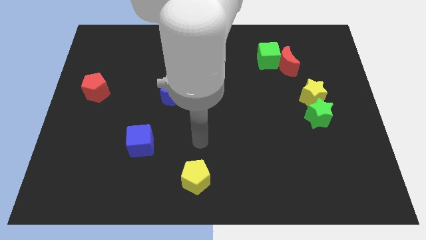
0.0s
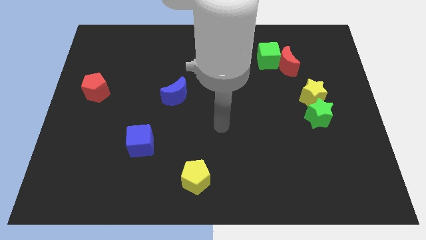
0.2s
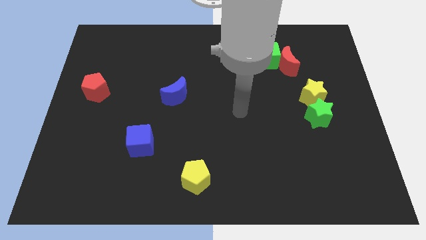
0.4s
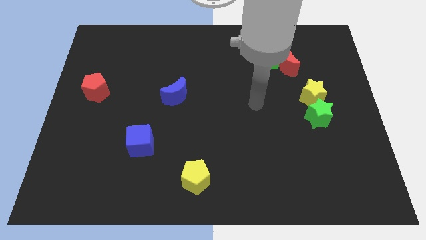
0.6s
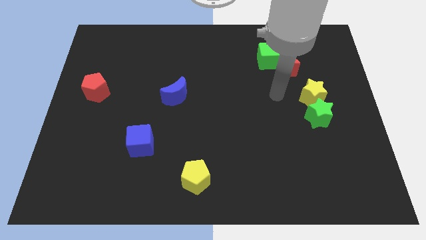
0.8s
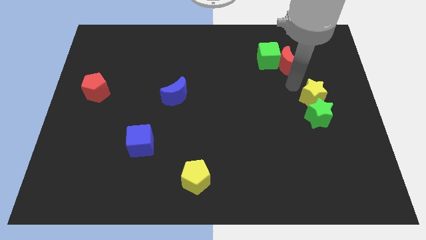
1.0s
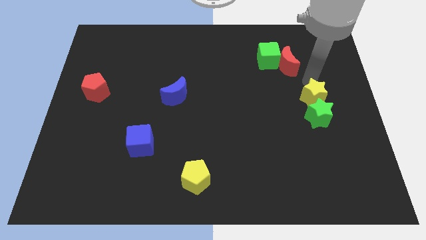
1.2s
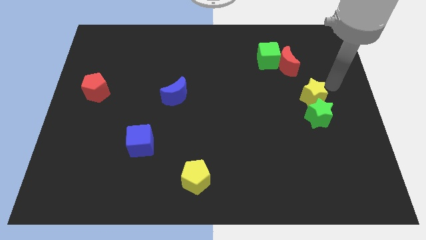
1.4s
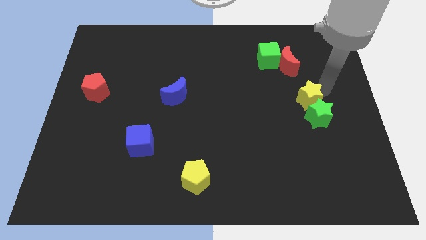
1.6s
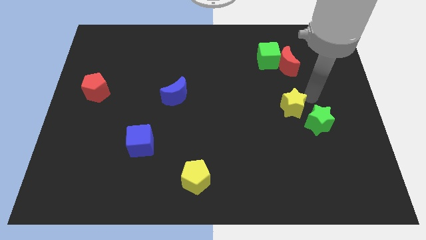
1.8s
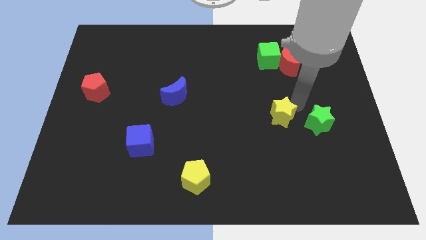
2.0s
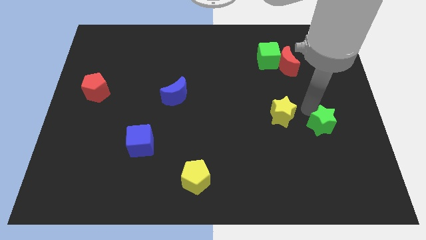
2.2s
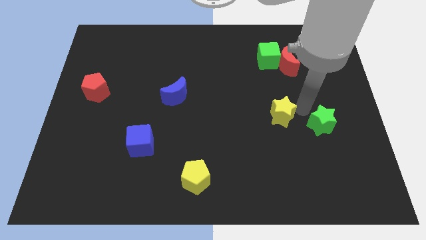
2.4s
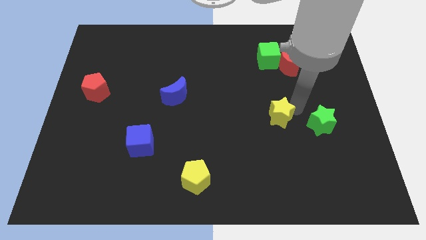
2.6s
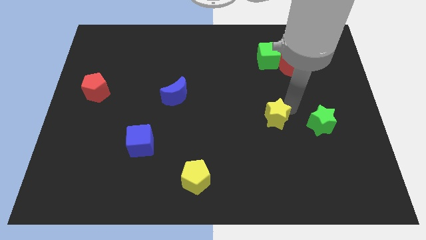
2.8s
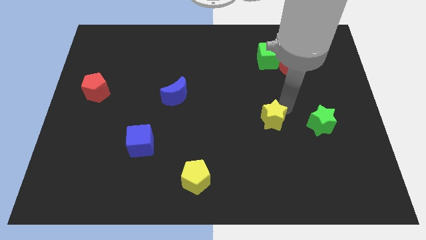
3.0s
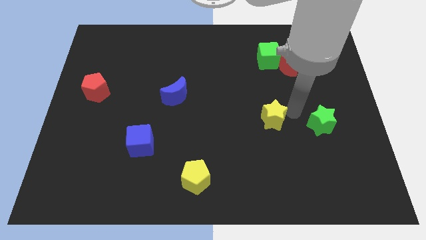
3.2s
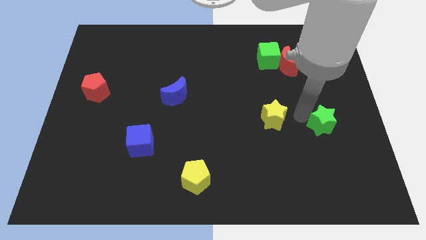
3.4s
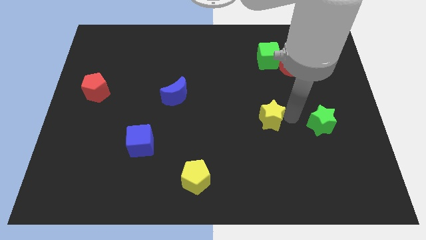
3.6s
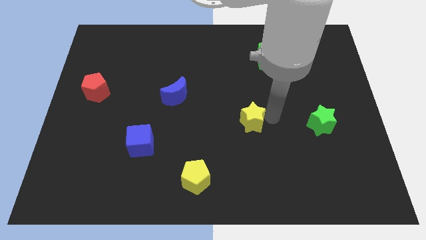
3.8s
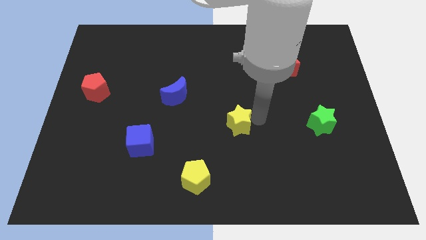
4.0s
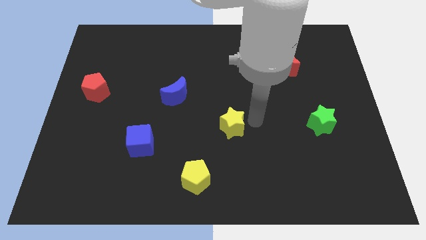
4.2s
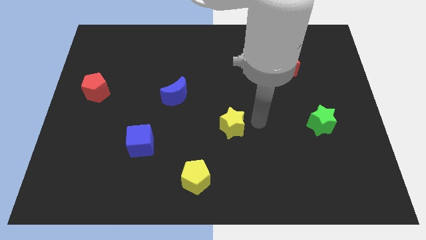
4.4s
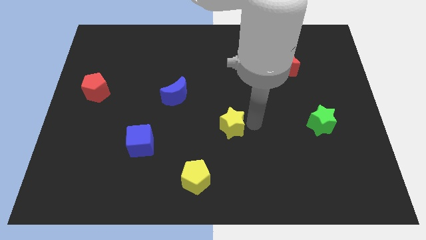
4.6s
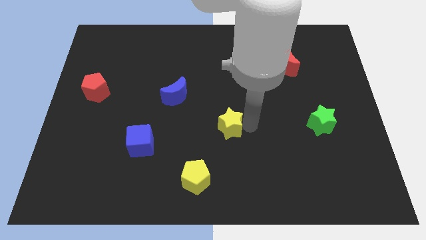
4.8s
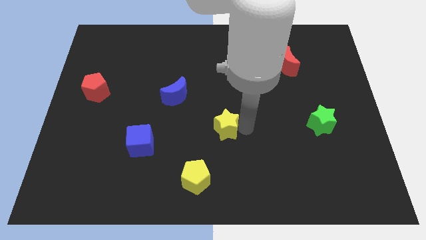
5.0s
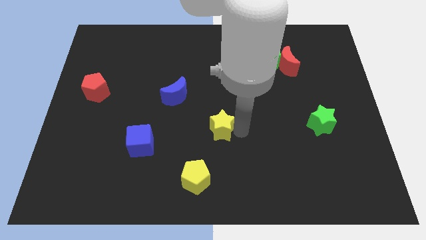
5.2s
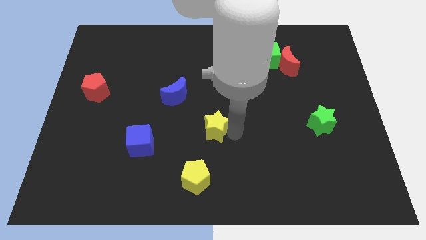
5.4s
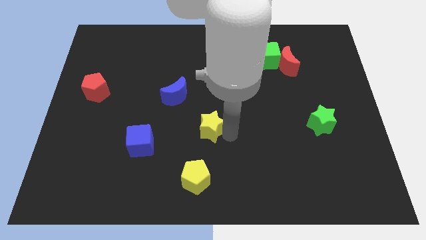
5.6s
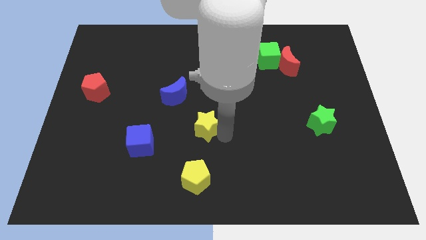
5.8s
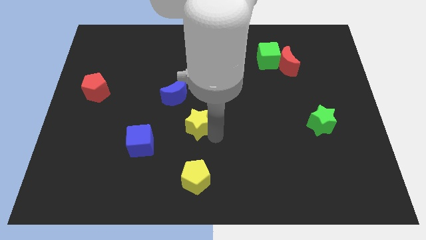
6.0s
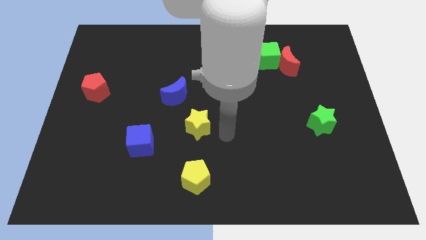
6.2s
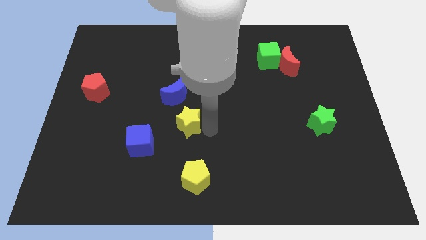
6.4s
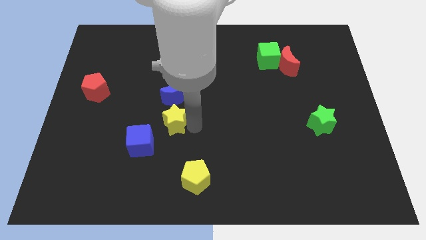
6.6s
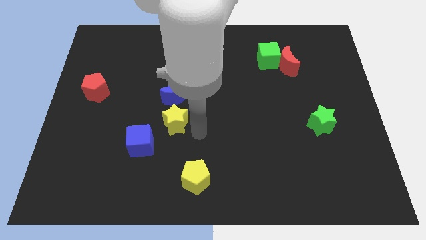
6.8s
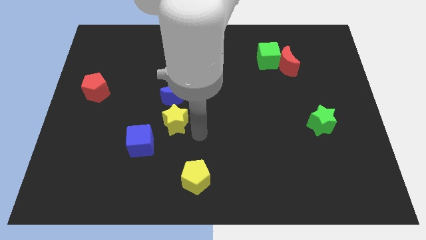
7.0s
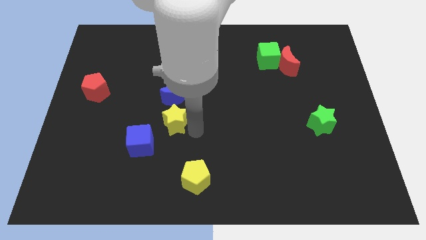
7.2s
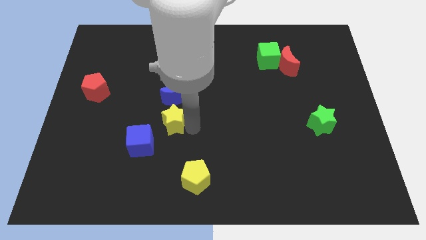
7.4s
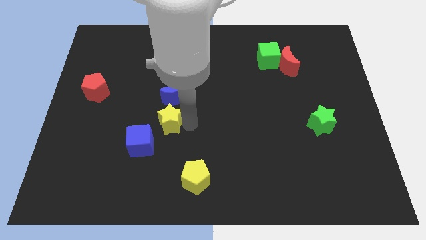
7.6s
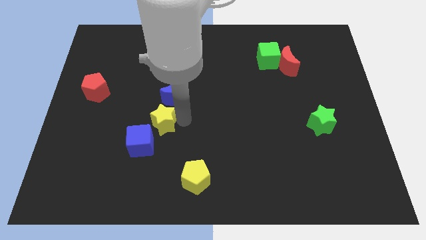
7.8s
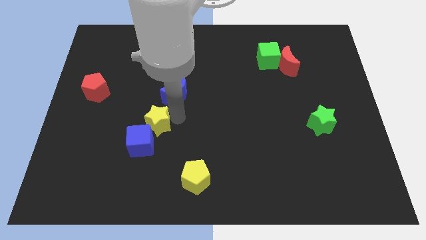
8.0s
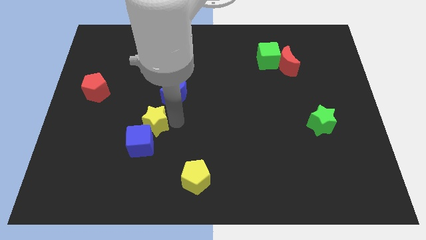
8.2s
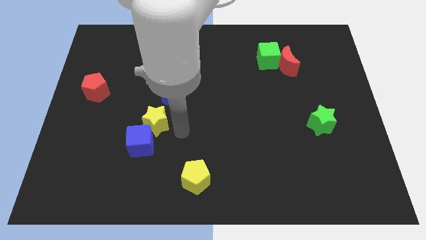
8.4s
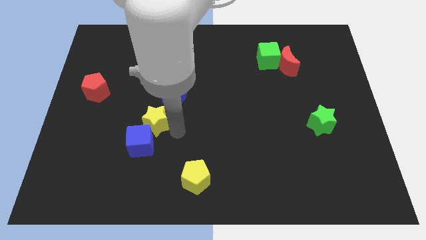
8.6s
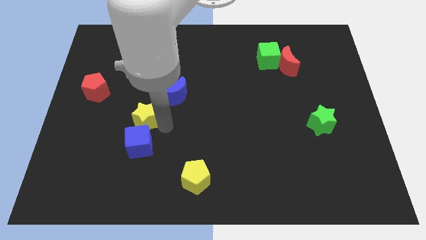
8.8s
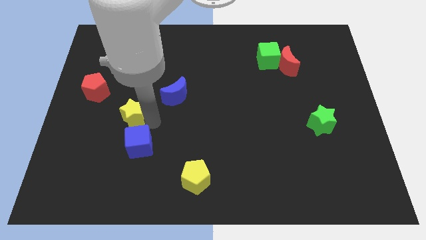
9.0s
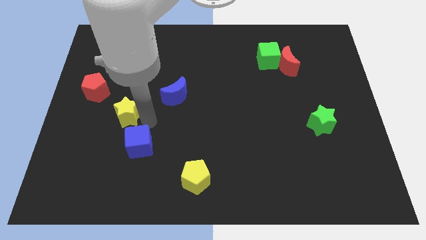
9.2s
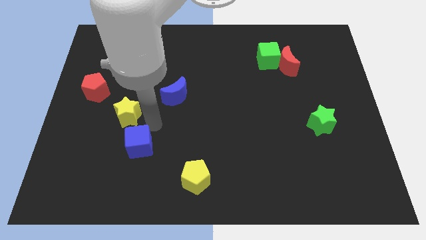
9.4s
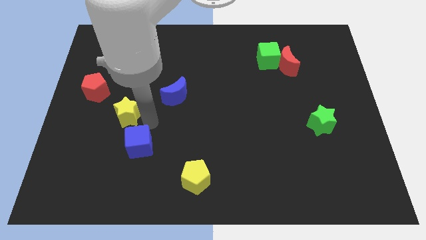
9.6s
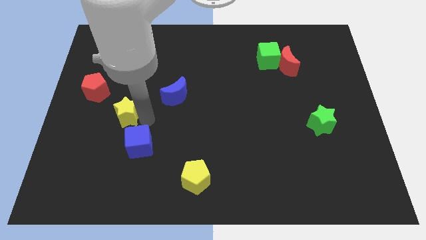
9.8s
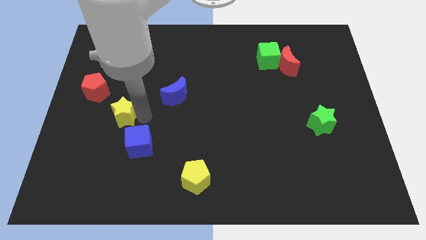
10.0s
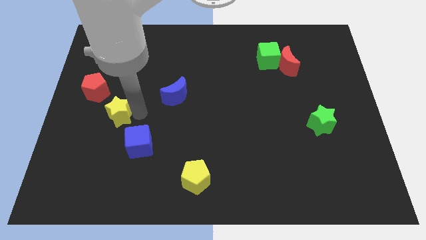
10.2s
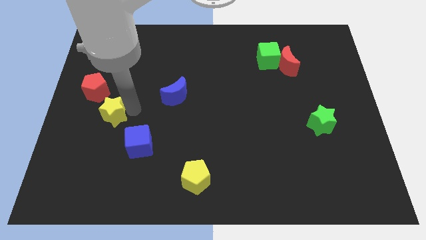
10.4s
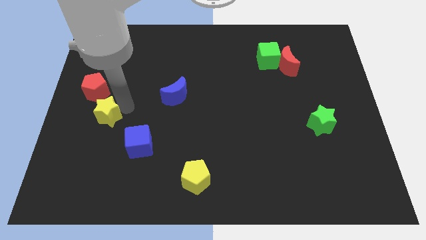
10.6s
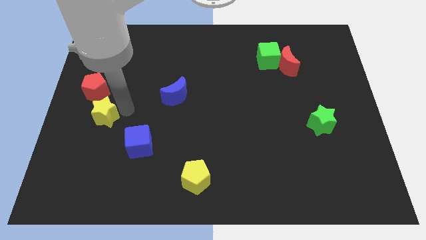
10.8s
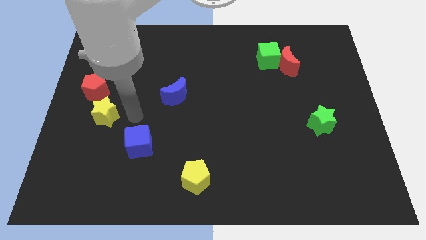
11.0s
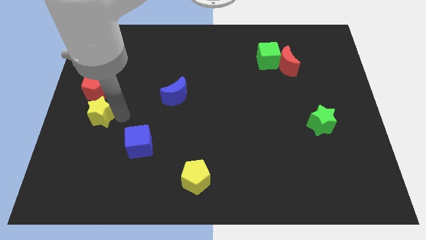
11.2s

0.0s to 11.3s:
move the yellow star to the center left

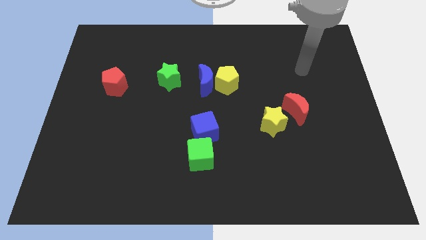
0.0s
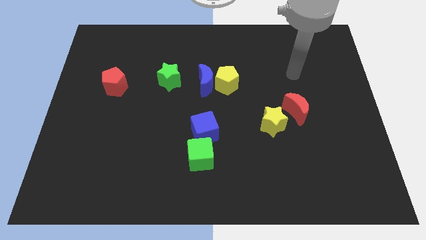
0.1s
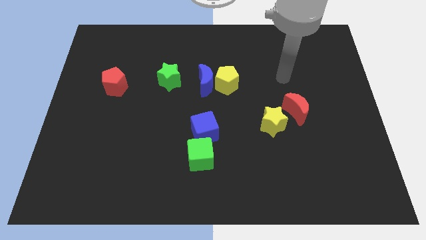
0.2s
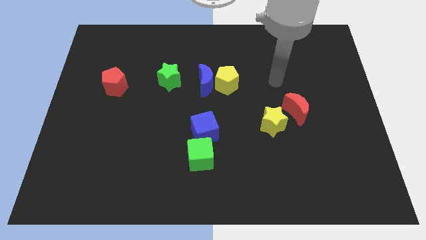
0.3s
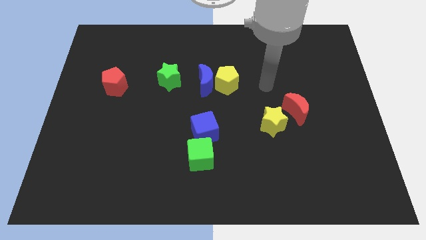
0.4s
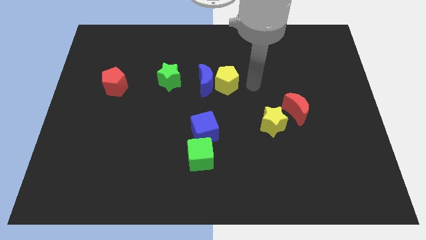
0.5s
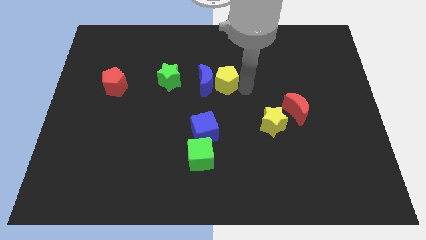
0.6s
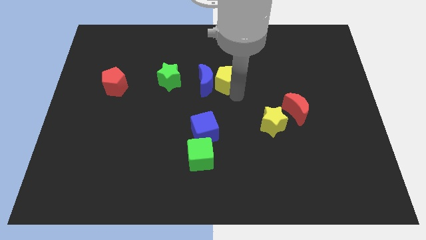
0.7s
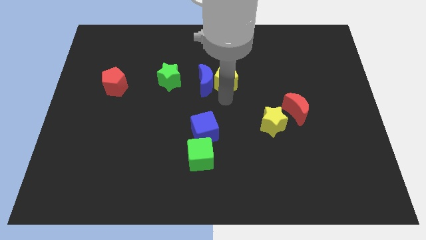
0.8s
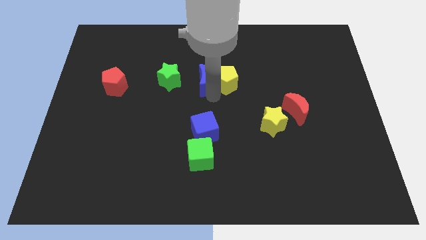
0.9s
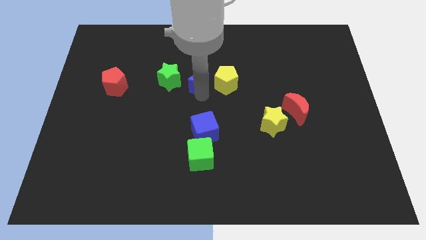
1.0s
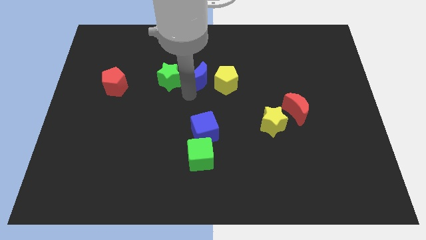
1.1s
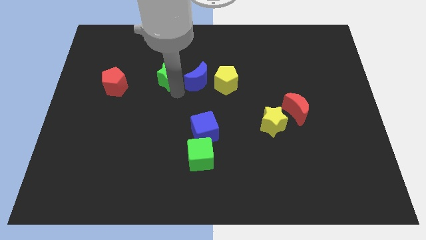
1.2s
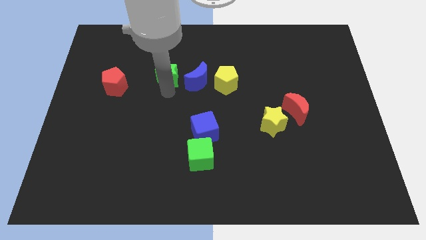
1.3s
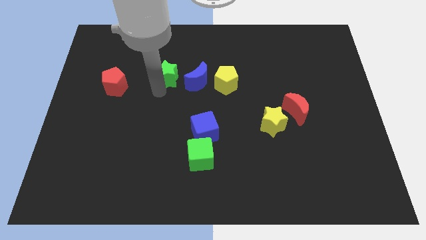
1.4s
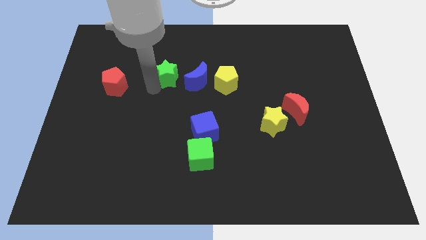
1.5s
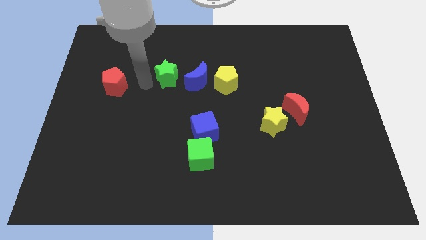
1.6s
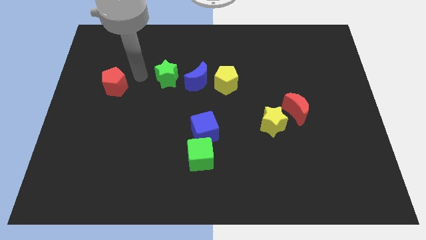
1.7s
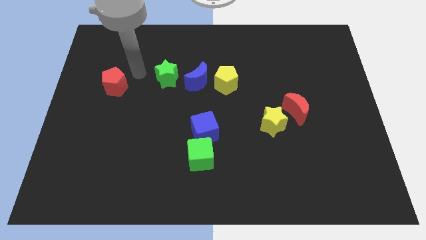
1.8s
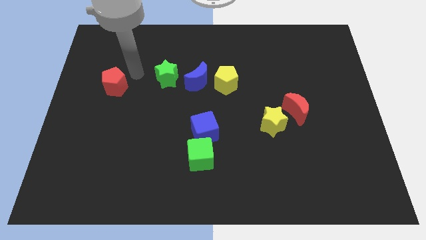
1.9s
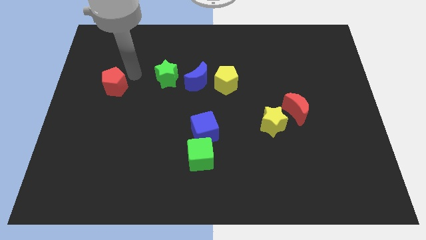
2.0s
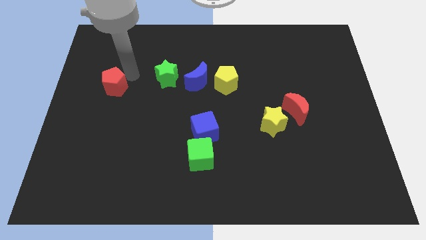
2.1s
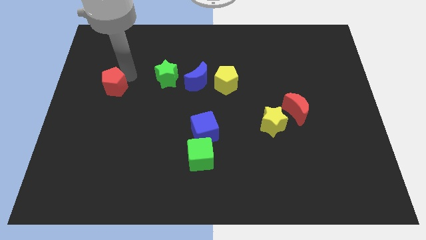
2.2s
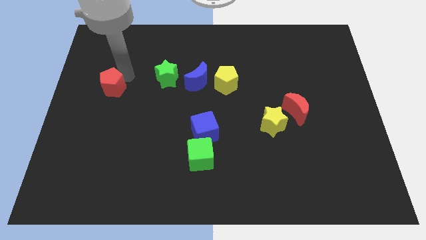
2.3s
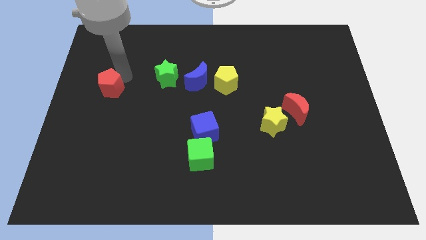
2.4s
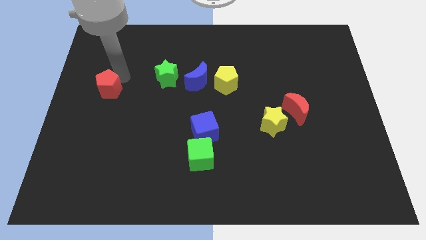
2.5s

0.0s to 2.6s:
move the red pentagon to the left side of the board
